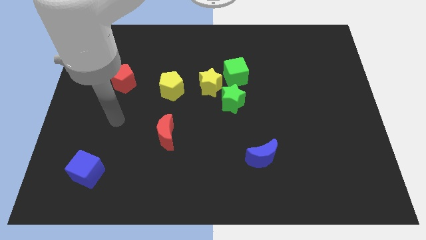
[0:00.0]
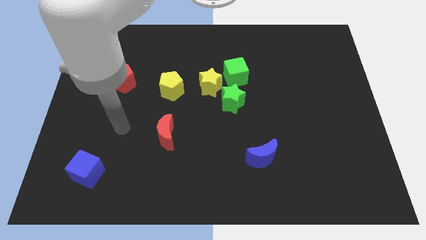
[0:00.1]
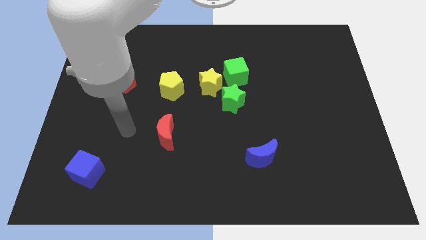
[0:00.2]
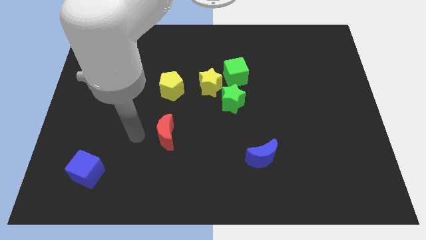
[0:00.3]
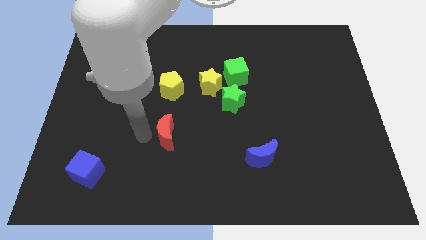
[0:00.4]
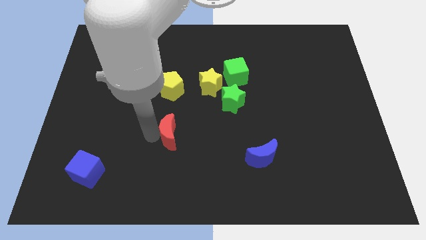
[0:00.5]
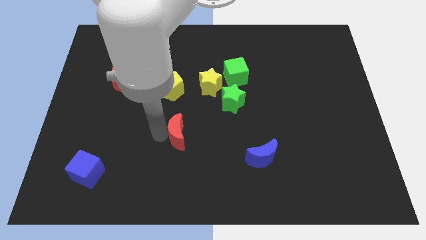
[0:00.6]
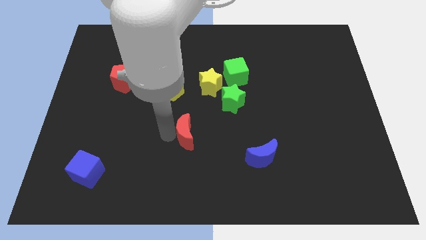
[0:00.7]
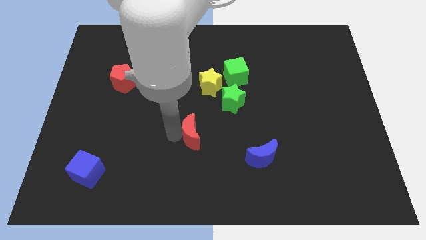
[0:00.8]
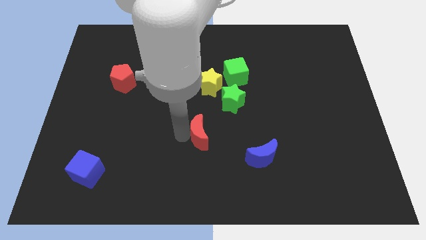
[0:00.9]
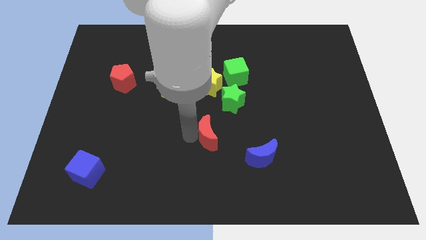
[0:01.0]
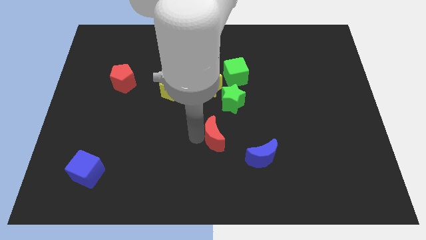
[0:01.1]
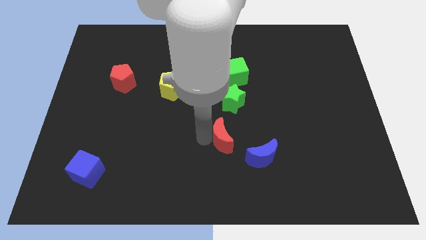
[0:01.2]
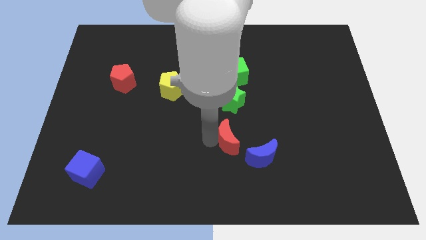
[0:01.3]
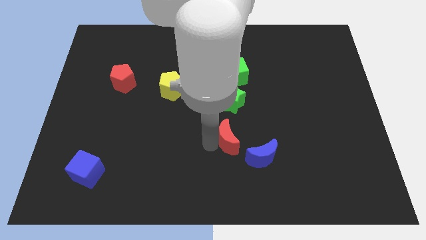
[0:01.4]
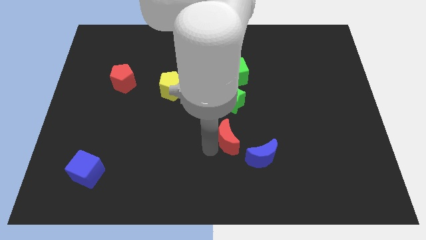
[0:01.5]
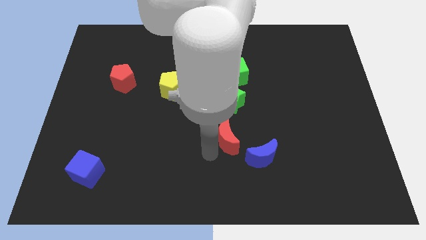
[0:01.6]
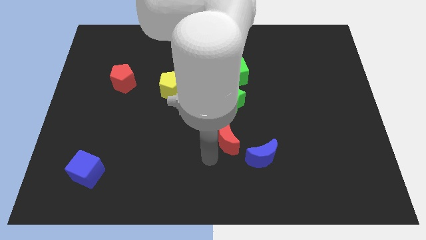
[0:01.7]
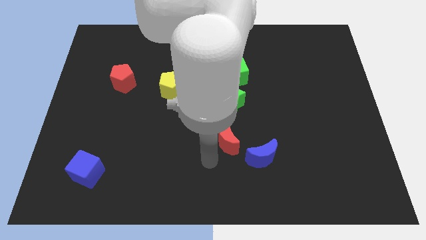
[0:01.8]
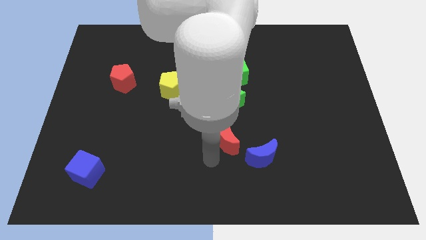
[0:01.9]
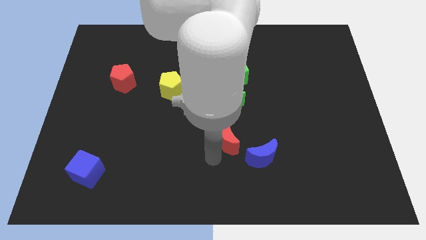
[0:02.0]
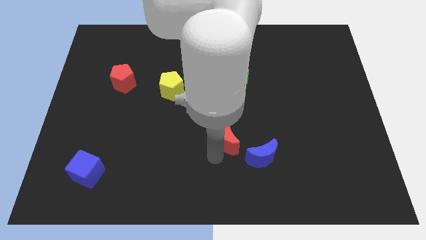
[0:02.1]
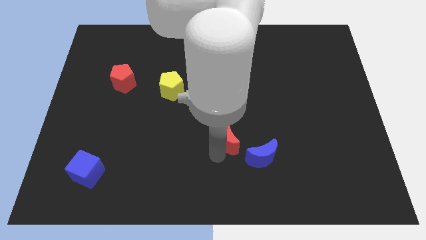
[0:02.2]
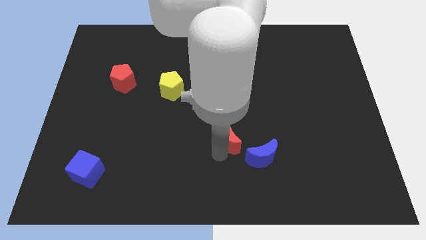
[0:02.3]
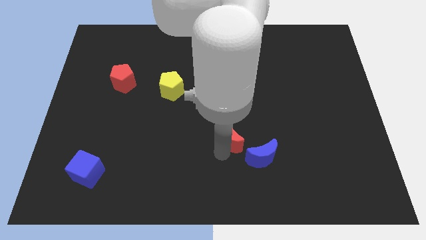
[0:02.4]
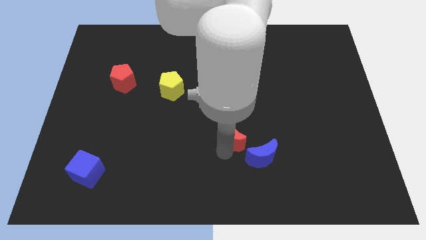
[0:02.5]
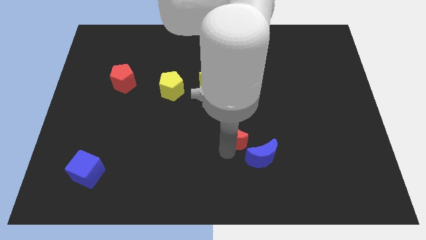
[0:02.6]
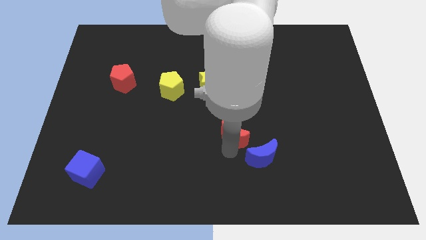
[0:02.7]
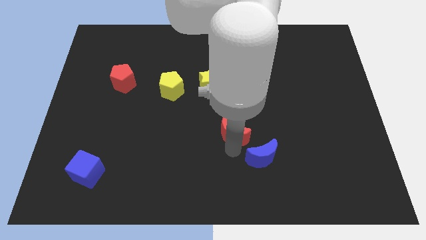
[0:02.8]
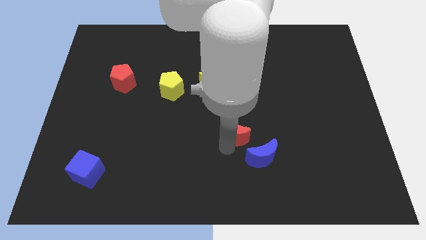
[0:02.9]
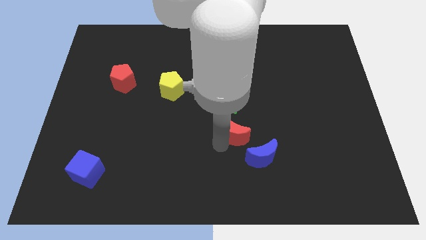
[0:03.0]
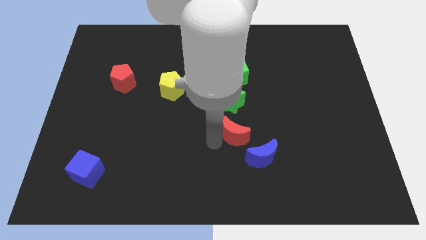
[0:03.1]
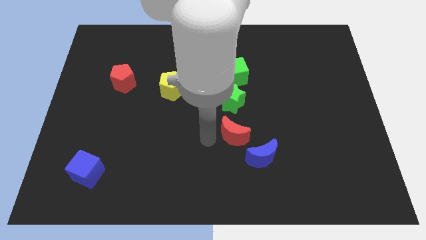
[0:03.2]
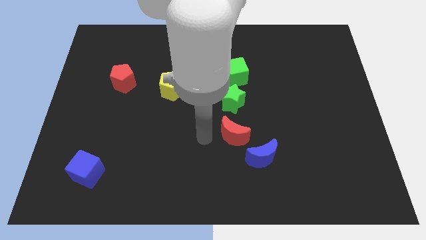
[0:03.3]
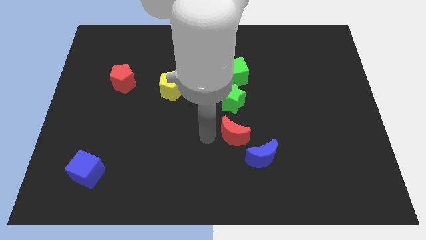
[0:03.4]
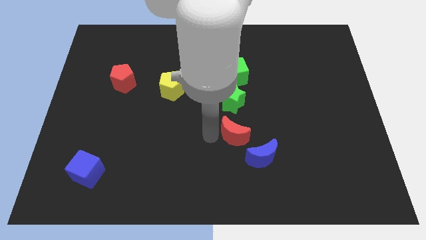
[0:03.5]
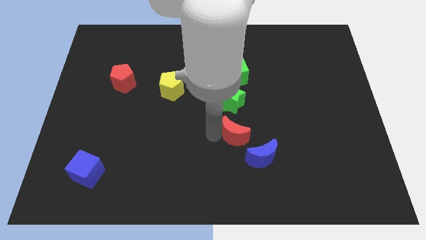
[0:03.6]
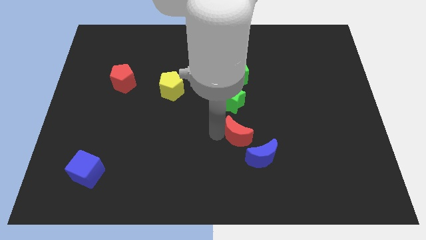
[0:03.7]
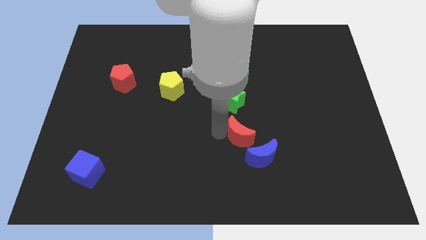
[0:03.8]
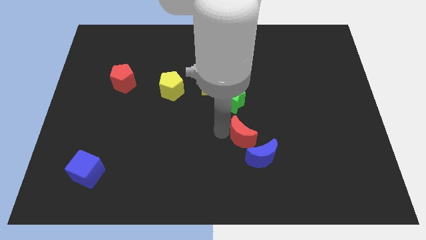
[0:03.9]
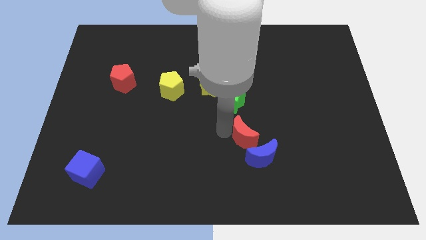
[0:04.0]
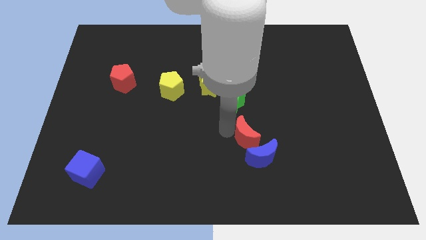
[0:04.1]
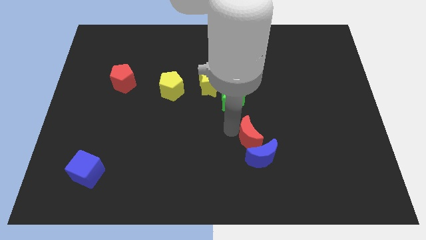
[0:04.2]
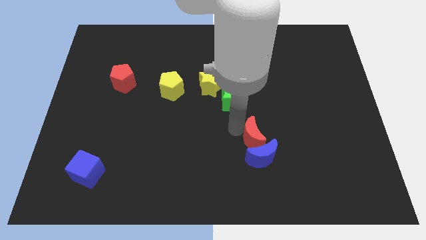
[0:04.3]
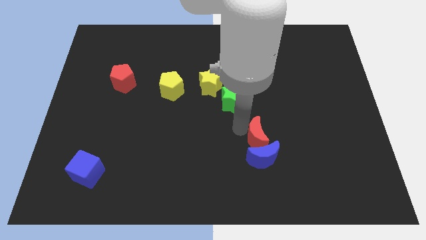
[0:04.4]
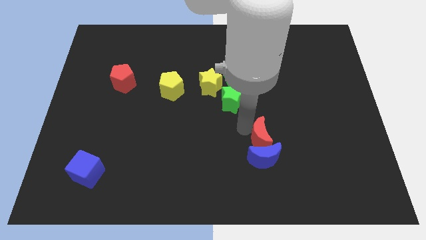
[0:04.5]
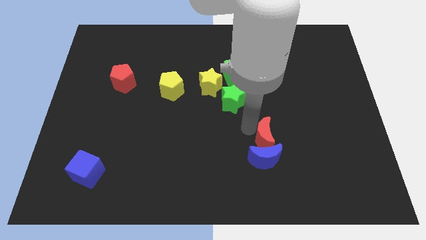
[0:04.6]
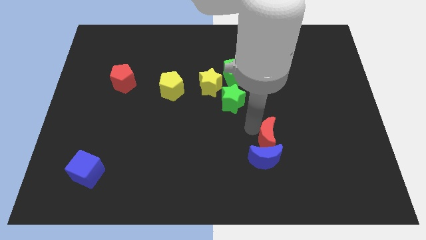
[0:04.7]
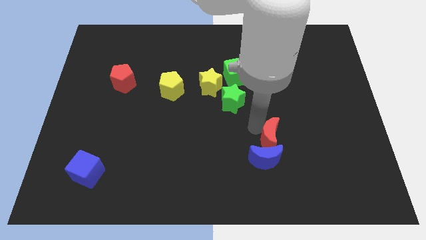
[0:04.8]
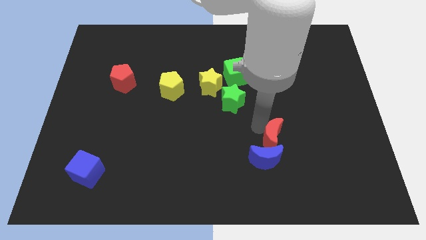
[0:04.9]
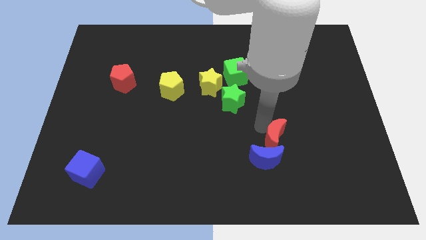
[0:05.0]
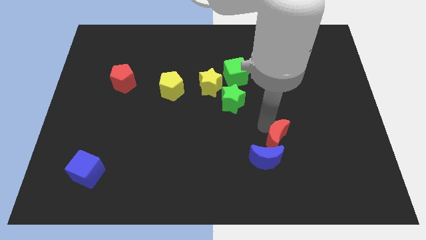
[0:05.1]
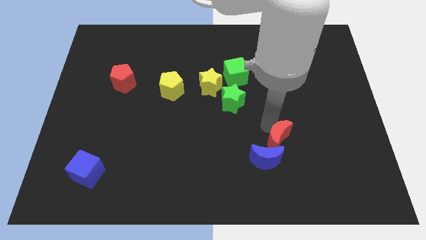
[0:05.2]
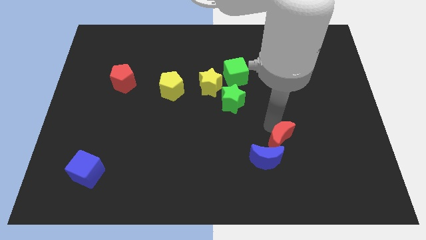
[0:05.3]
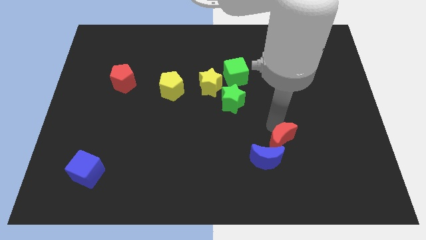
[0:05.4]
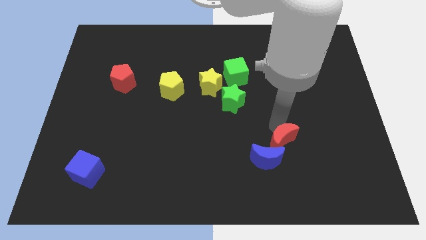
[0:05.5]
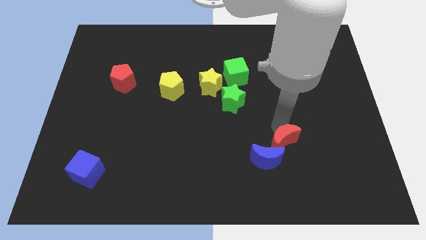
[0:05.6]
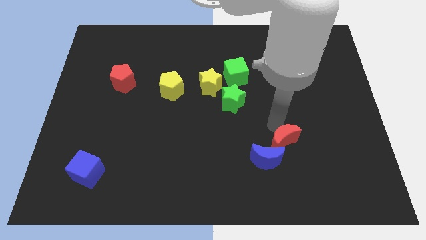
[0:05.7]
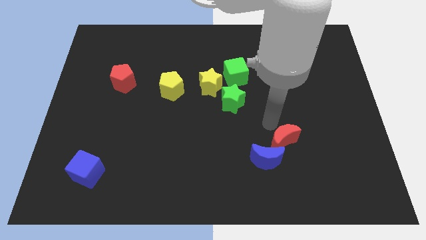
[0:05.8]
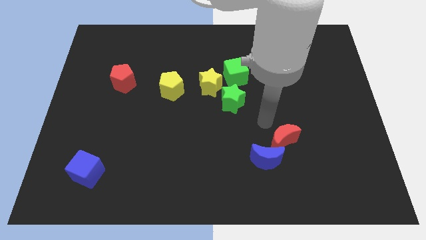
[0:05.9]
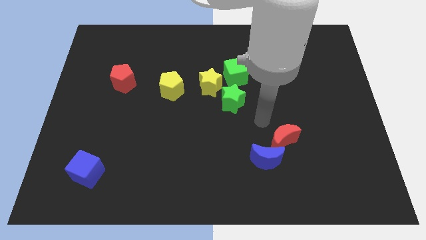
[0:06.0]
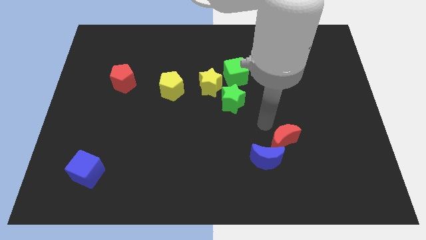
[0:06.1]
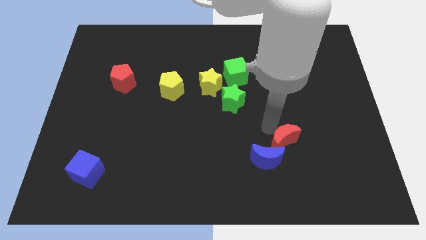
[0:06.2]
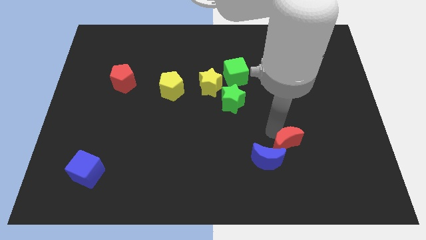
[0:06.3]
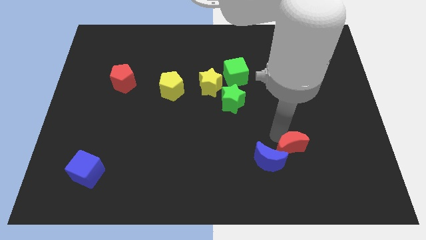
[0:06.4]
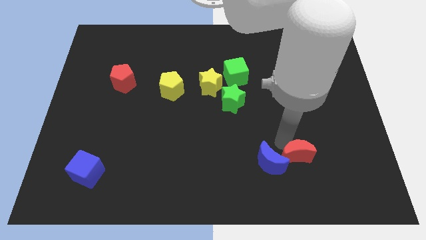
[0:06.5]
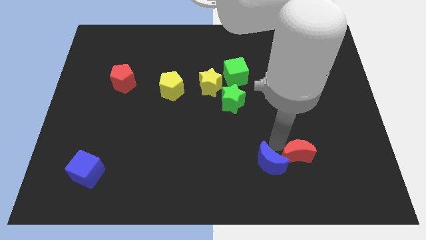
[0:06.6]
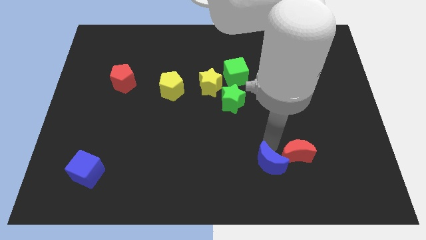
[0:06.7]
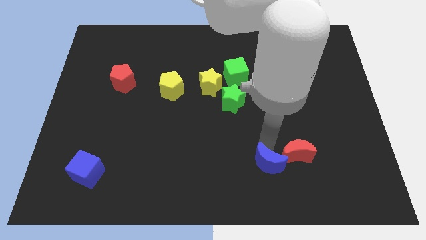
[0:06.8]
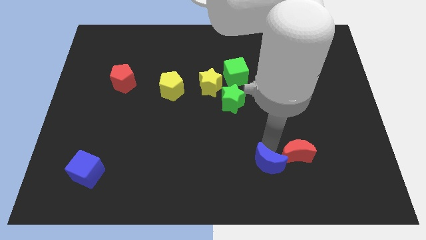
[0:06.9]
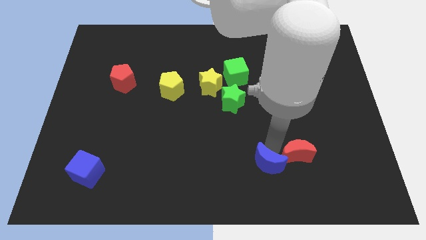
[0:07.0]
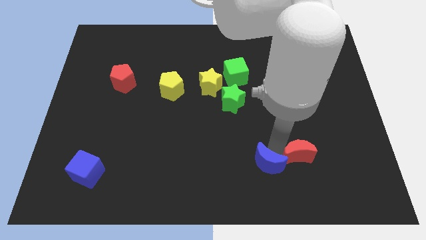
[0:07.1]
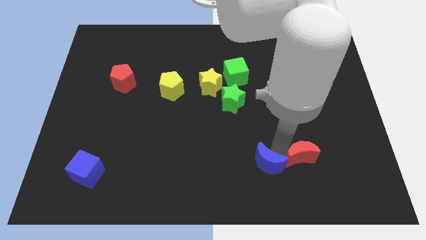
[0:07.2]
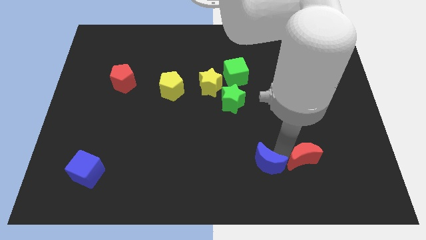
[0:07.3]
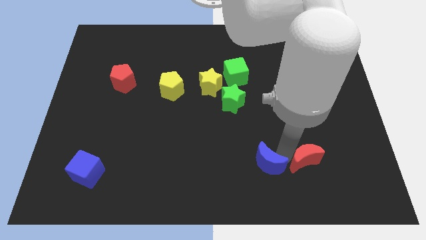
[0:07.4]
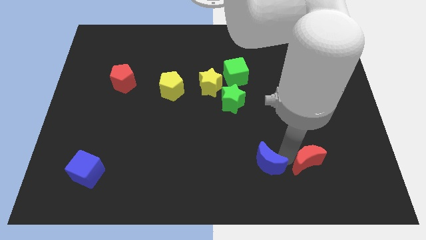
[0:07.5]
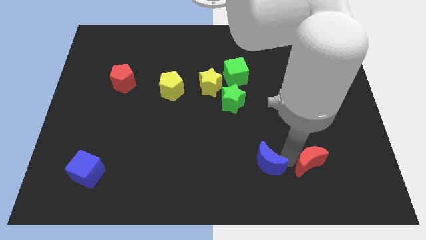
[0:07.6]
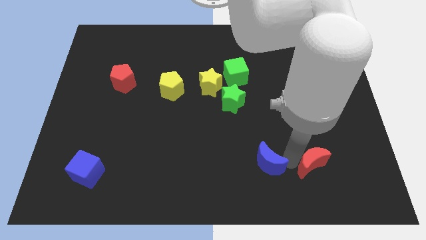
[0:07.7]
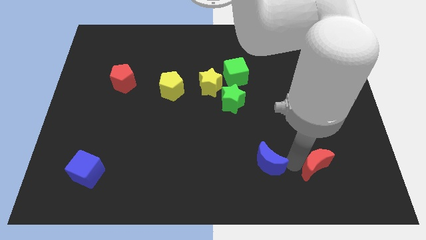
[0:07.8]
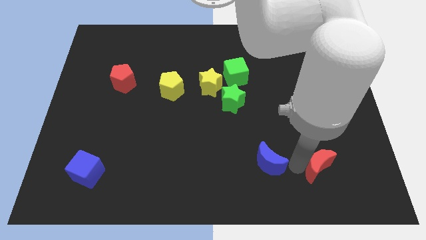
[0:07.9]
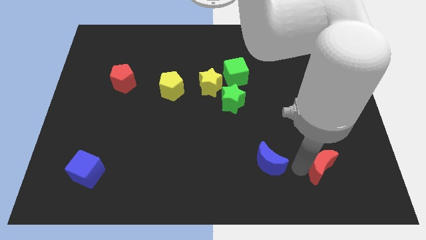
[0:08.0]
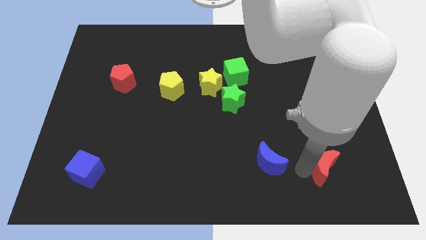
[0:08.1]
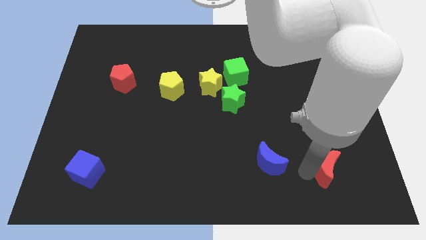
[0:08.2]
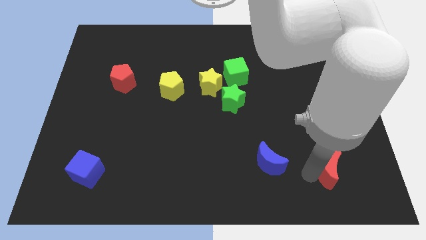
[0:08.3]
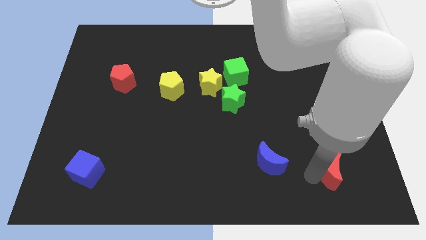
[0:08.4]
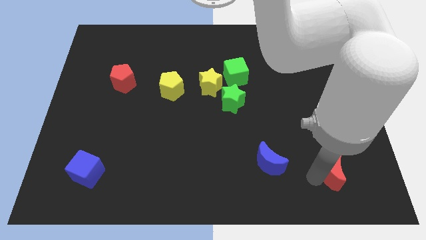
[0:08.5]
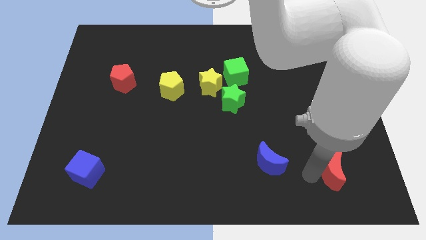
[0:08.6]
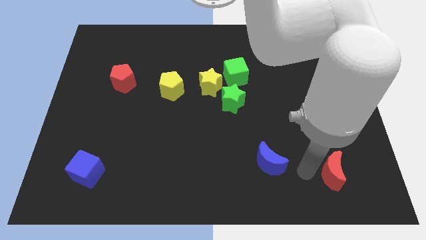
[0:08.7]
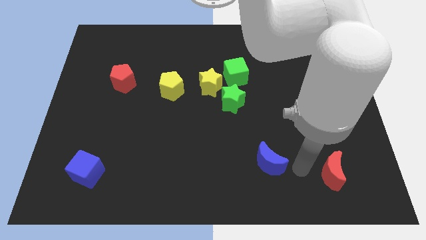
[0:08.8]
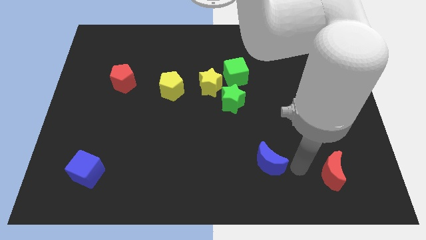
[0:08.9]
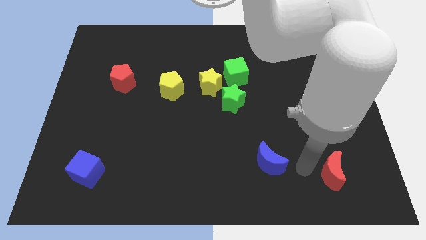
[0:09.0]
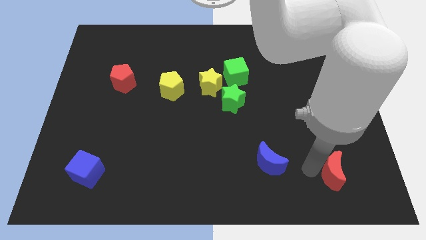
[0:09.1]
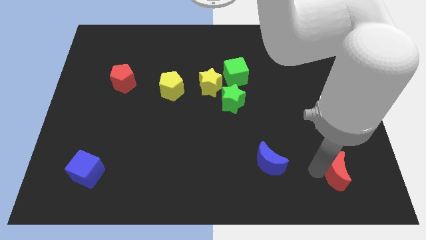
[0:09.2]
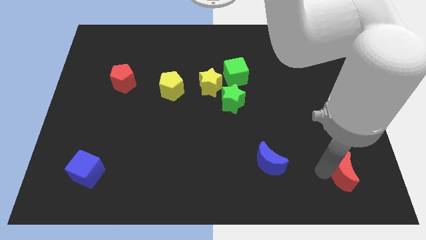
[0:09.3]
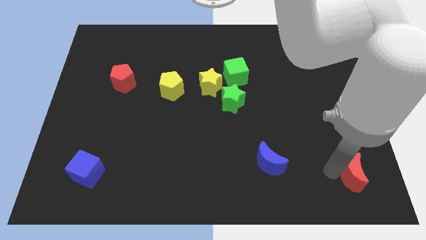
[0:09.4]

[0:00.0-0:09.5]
move the red moon to the bottom right corner
